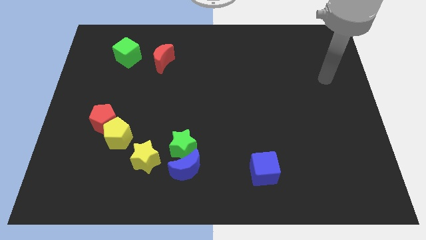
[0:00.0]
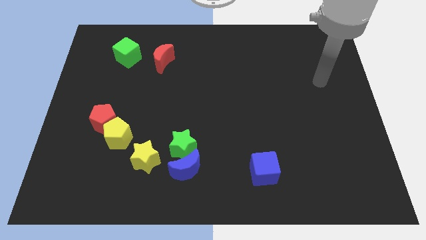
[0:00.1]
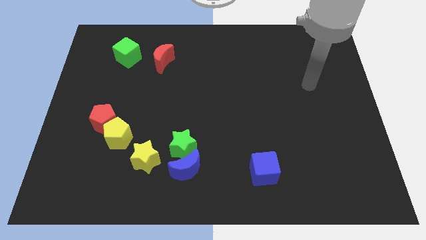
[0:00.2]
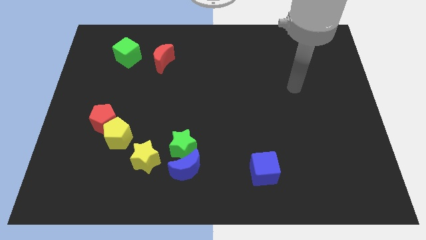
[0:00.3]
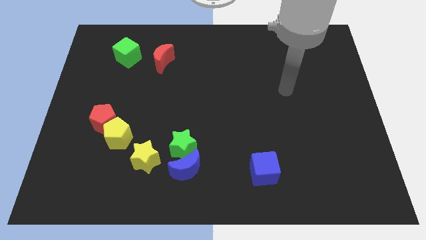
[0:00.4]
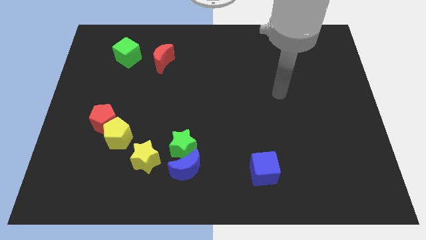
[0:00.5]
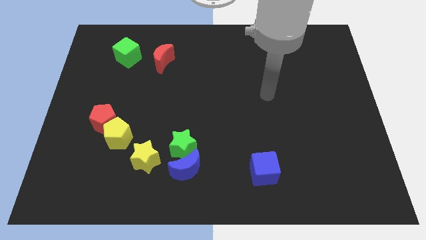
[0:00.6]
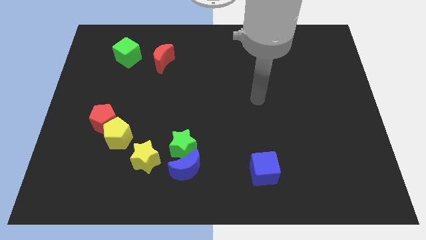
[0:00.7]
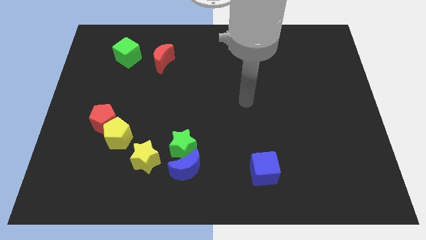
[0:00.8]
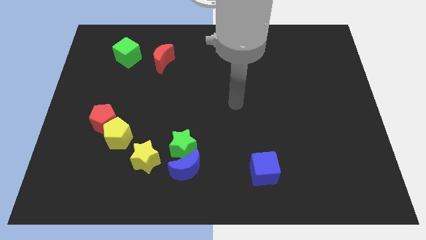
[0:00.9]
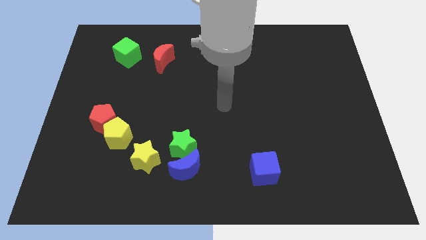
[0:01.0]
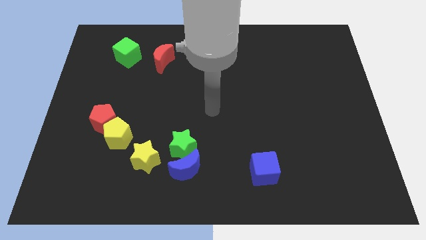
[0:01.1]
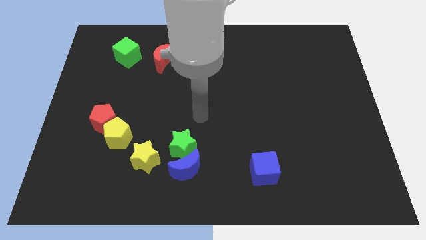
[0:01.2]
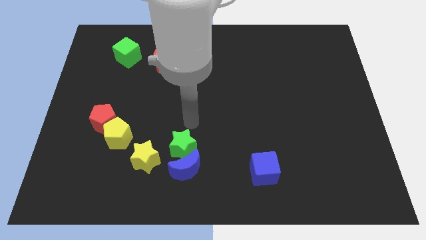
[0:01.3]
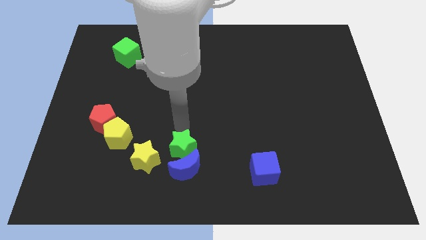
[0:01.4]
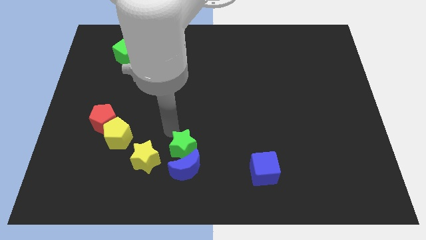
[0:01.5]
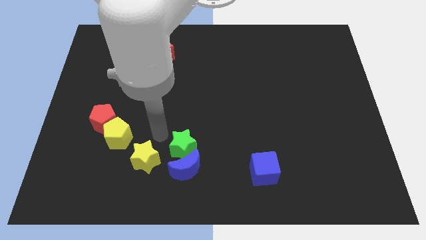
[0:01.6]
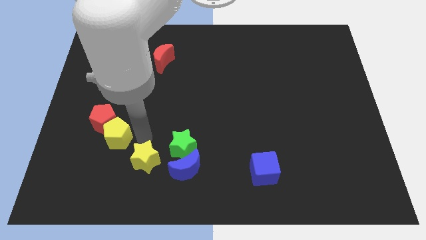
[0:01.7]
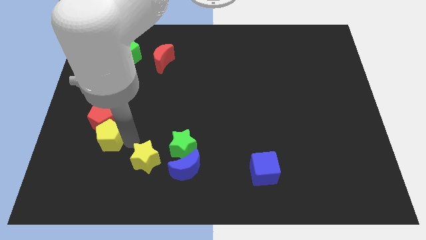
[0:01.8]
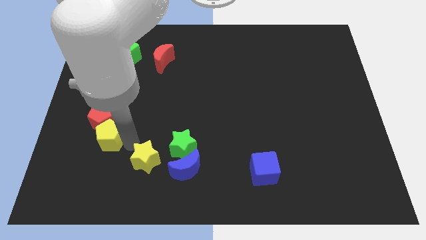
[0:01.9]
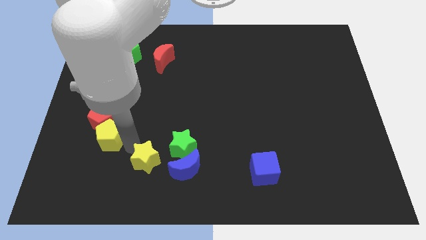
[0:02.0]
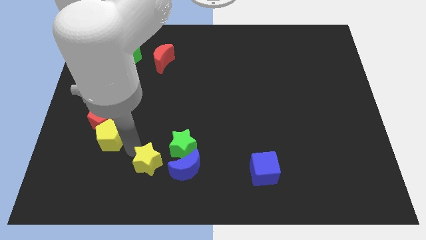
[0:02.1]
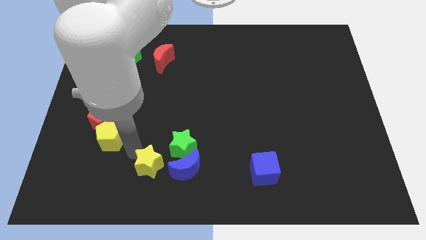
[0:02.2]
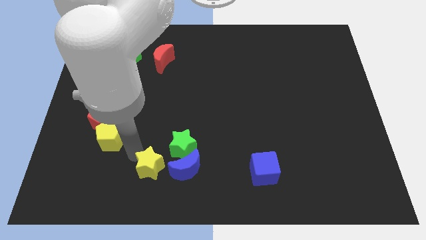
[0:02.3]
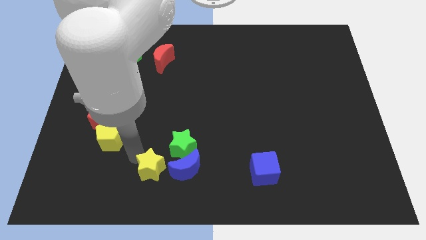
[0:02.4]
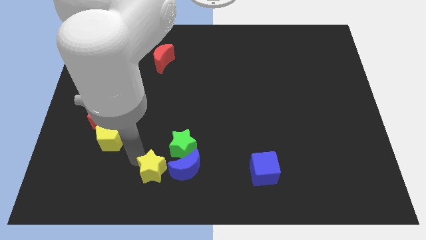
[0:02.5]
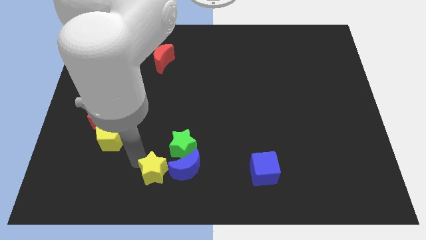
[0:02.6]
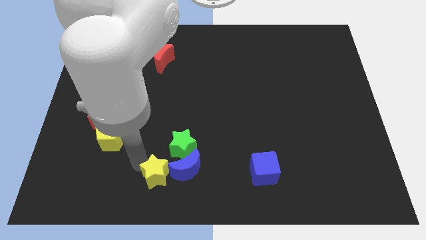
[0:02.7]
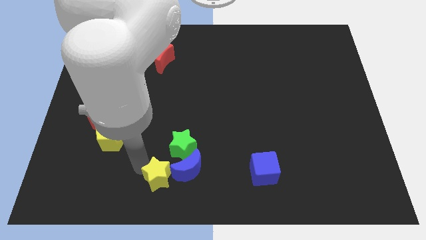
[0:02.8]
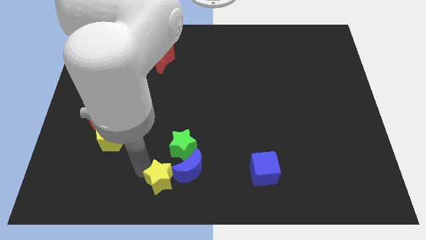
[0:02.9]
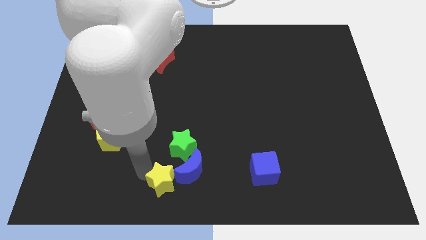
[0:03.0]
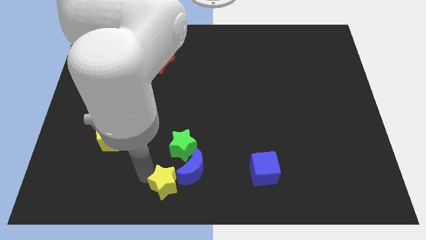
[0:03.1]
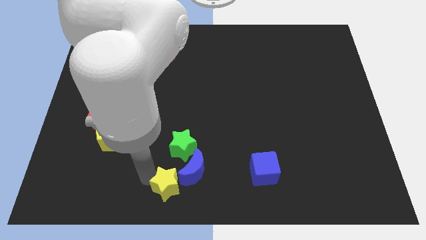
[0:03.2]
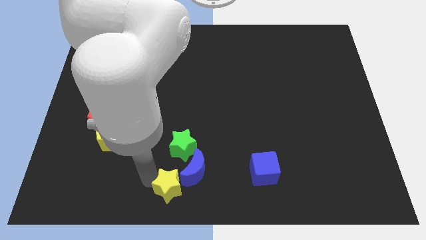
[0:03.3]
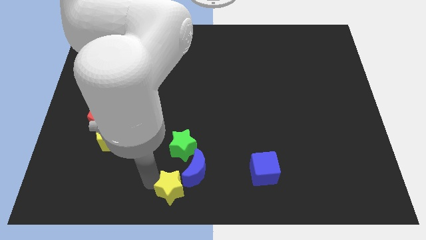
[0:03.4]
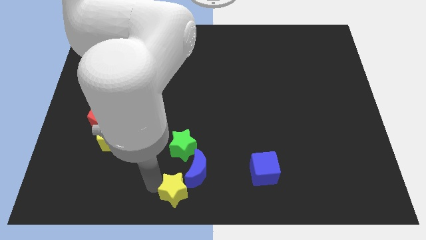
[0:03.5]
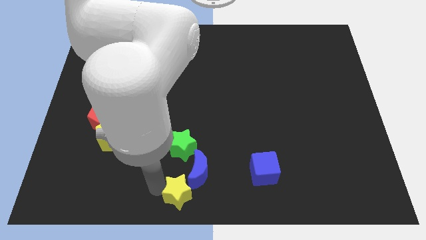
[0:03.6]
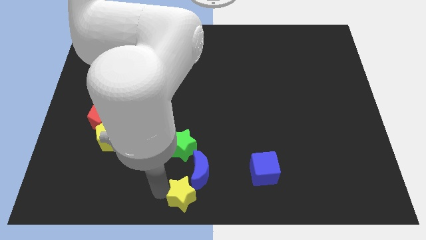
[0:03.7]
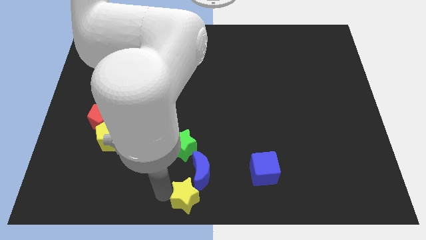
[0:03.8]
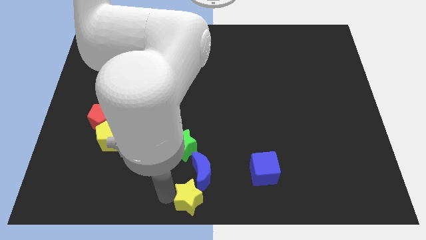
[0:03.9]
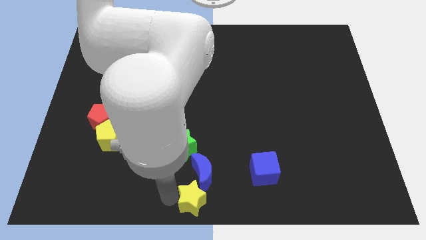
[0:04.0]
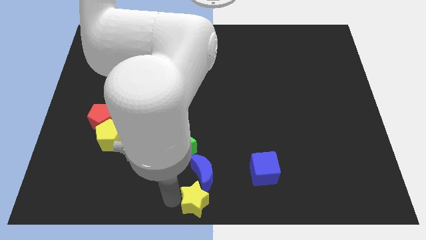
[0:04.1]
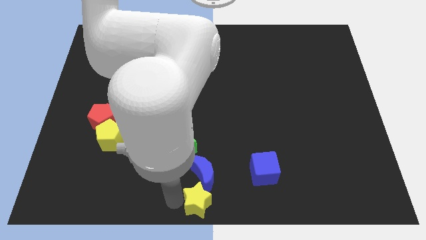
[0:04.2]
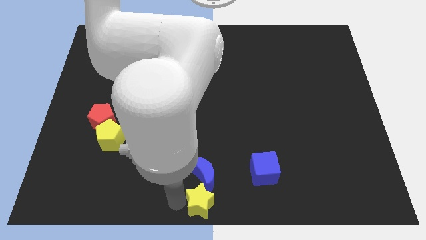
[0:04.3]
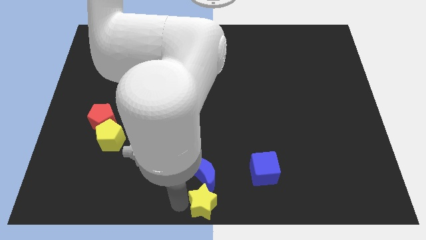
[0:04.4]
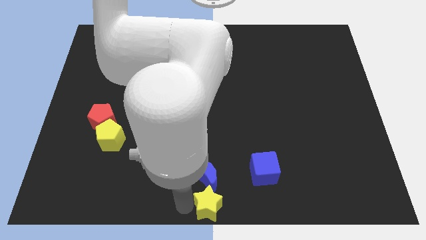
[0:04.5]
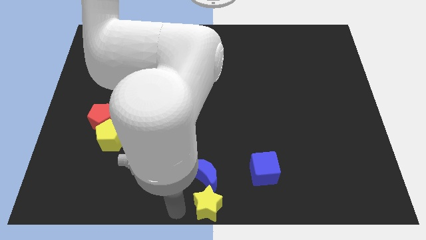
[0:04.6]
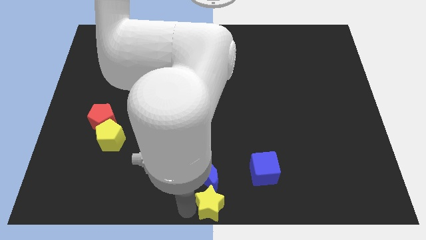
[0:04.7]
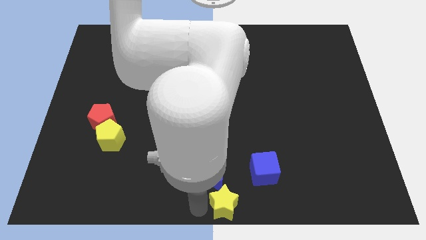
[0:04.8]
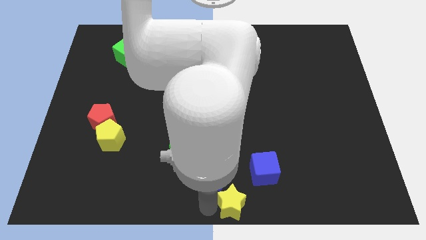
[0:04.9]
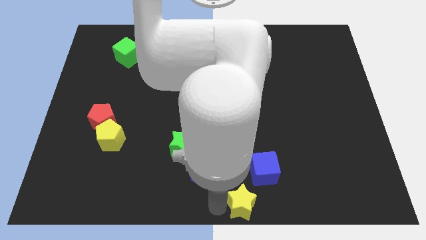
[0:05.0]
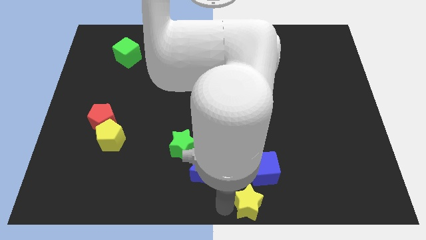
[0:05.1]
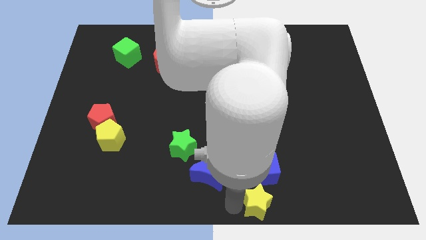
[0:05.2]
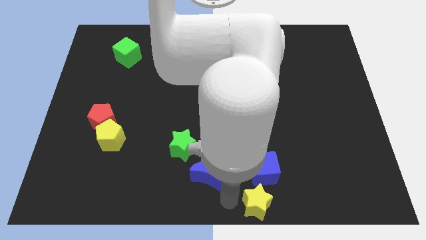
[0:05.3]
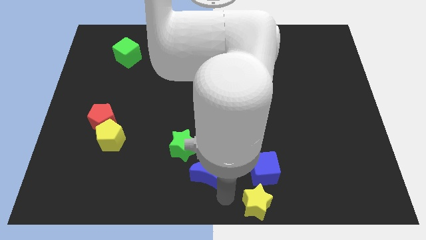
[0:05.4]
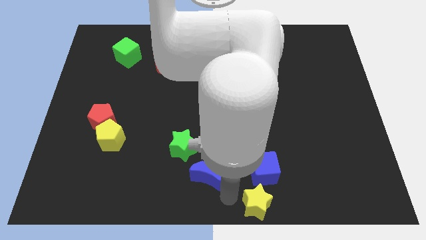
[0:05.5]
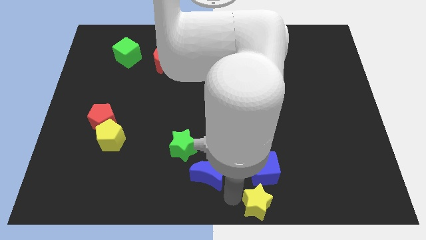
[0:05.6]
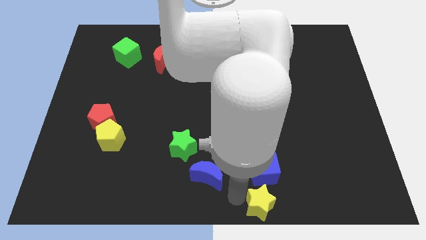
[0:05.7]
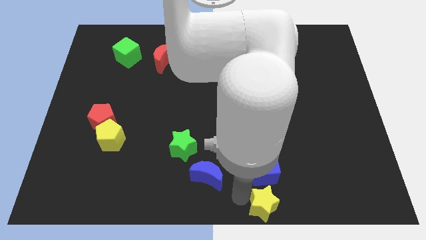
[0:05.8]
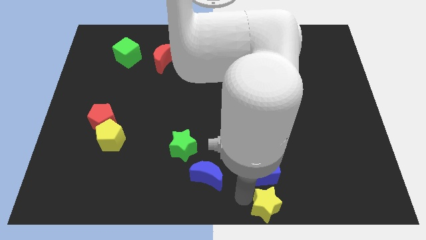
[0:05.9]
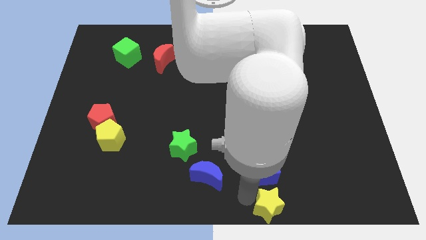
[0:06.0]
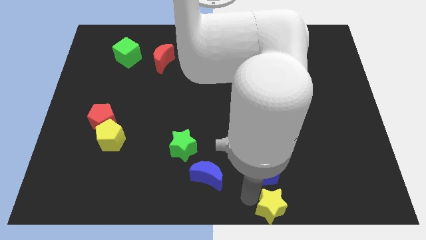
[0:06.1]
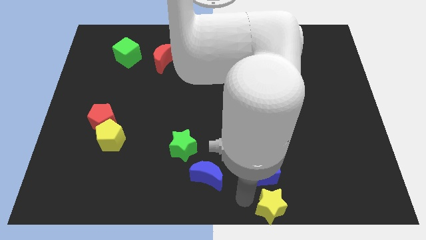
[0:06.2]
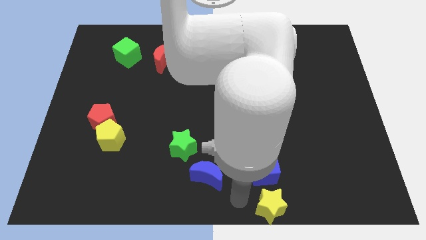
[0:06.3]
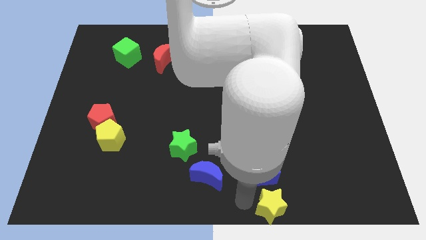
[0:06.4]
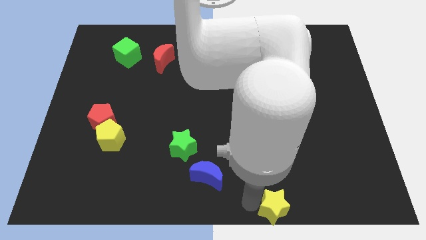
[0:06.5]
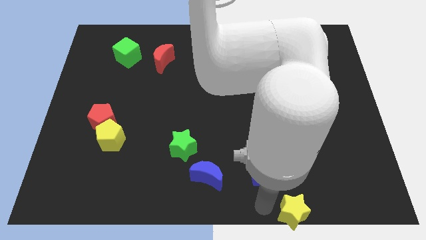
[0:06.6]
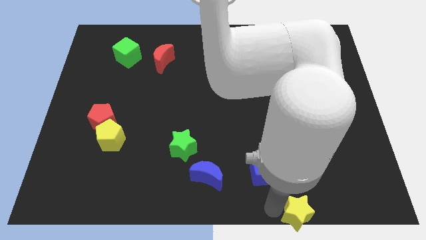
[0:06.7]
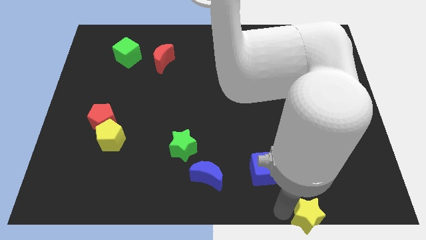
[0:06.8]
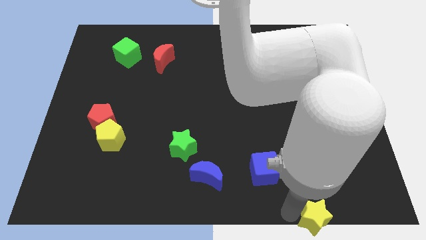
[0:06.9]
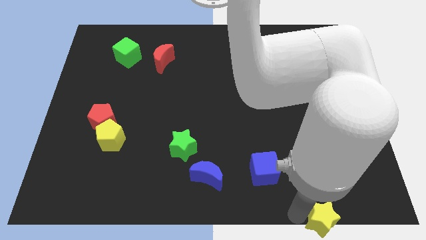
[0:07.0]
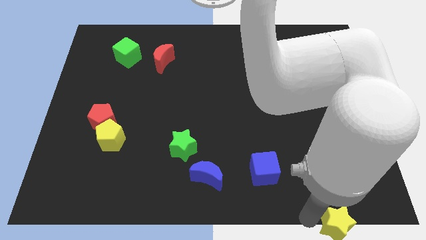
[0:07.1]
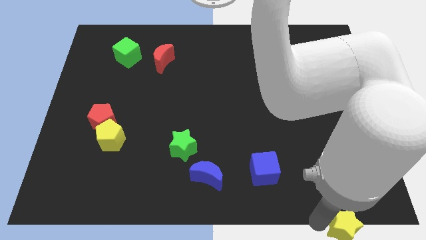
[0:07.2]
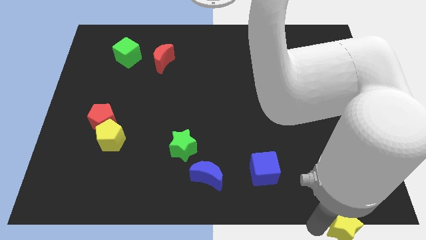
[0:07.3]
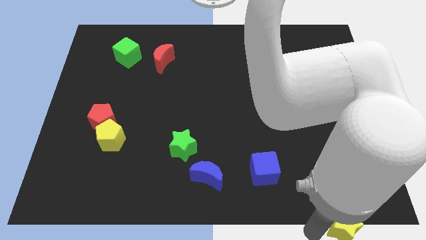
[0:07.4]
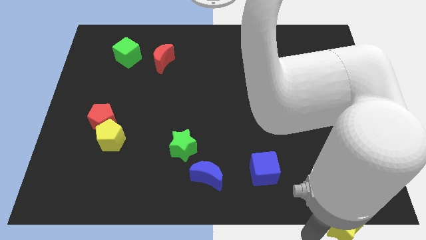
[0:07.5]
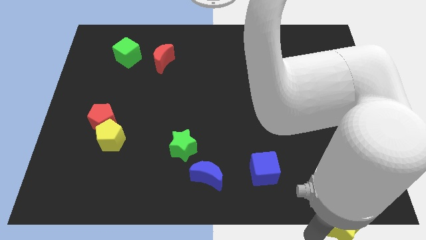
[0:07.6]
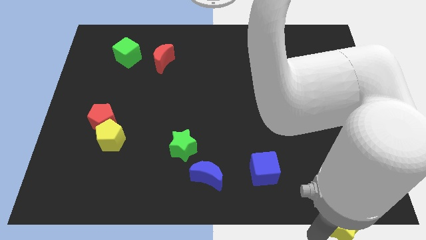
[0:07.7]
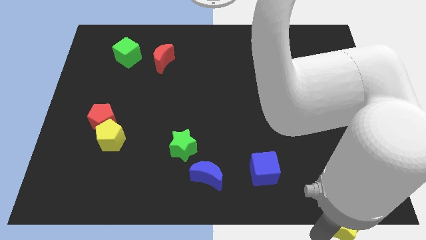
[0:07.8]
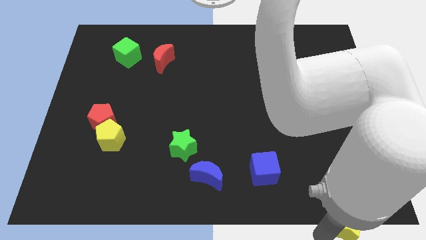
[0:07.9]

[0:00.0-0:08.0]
move the yellow star to the lower right corner
